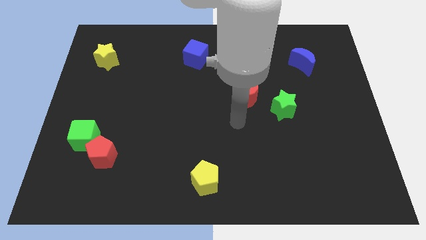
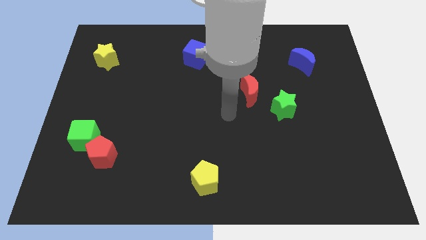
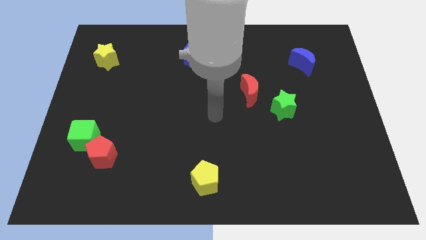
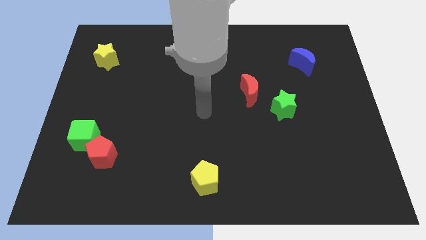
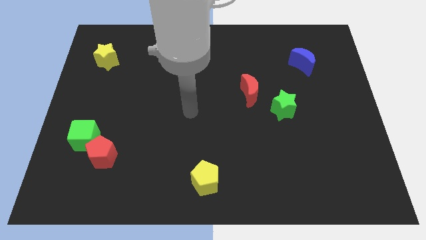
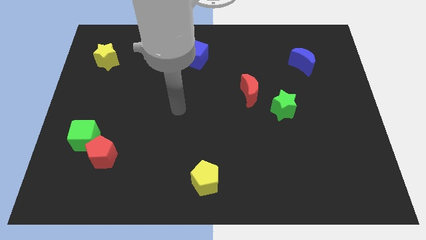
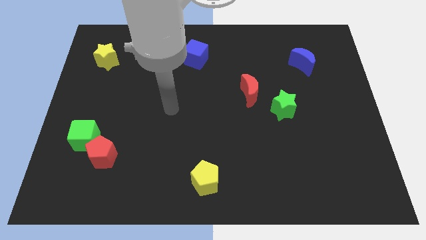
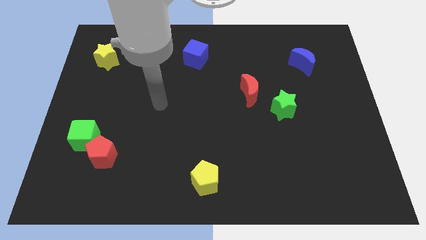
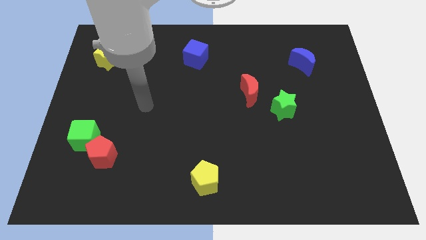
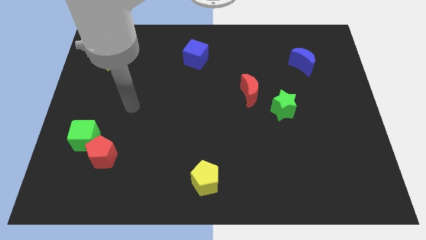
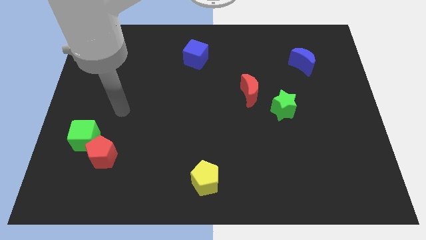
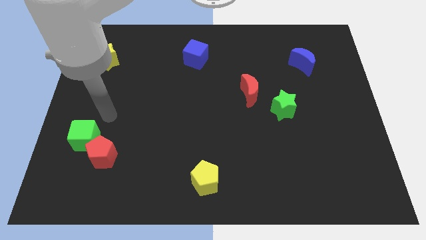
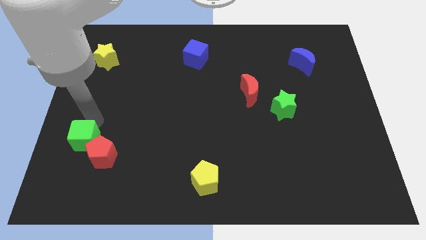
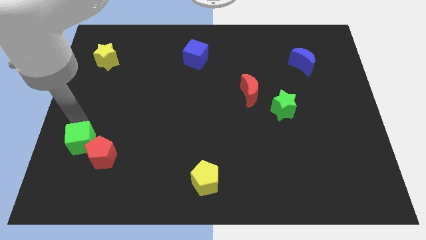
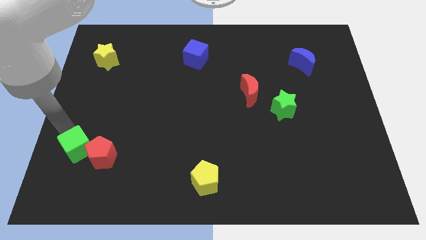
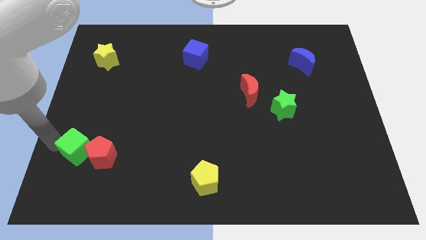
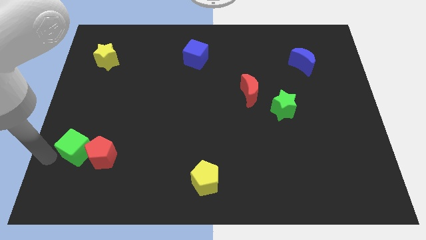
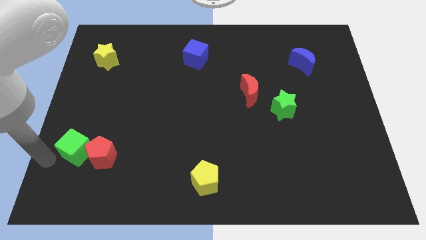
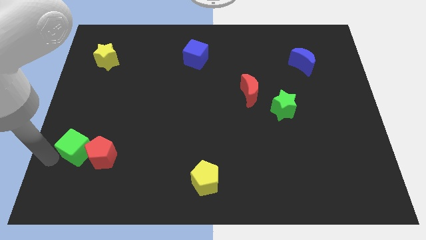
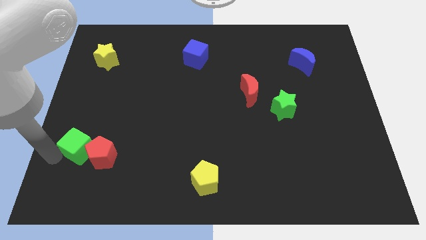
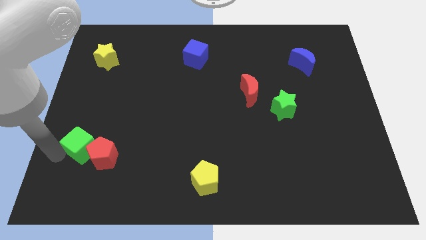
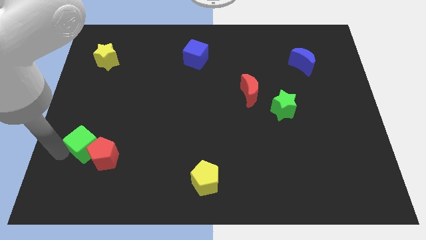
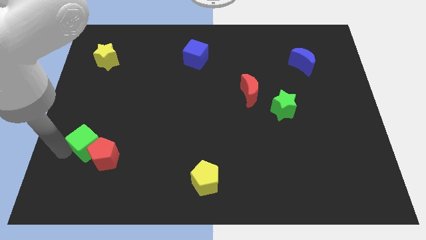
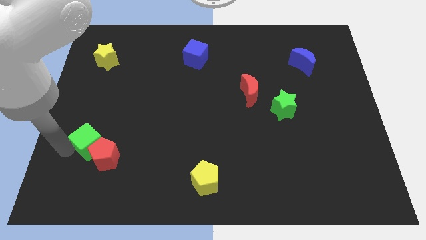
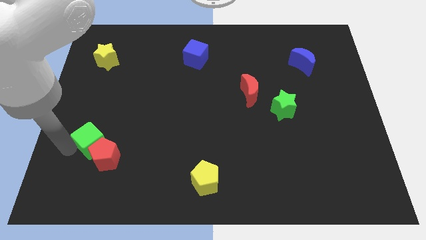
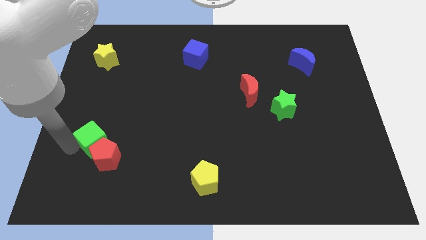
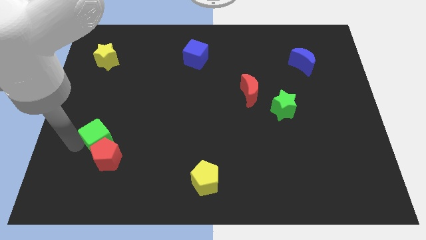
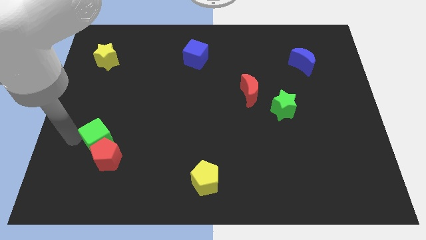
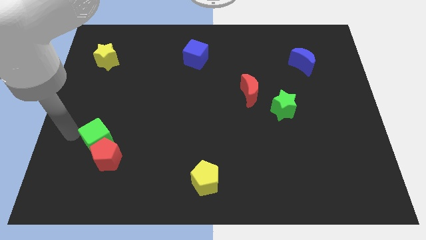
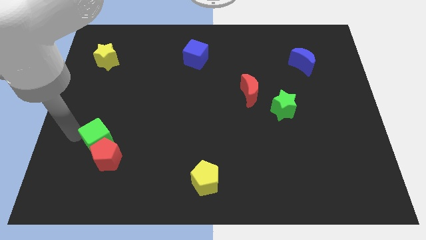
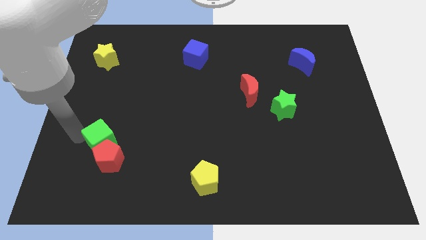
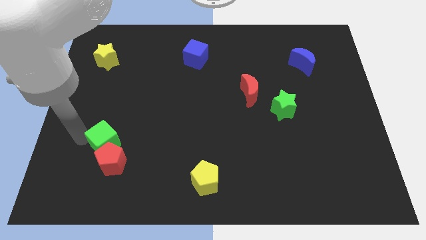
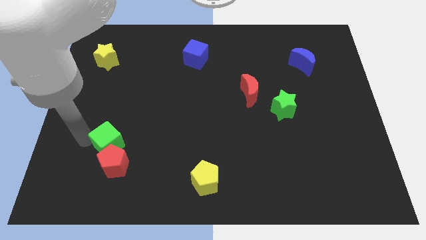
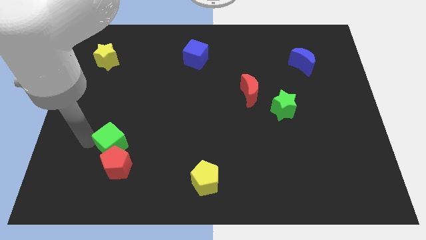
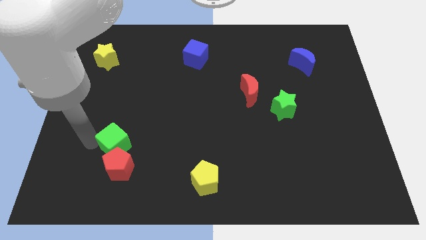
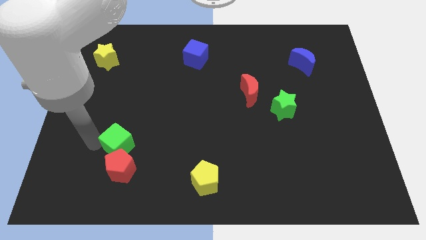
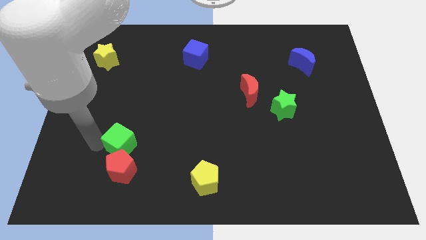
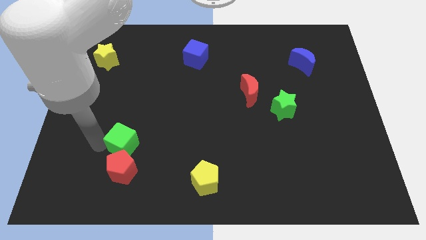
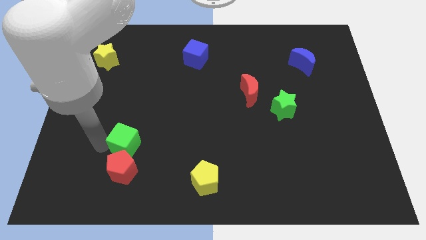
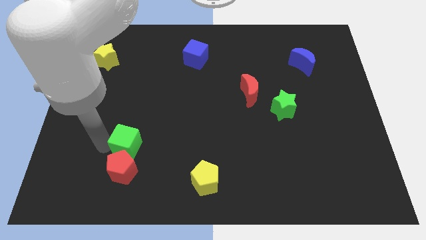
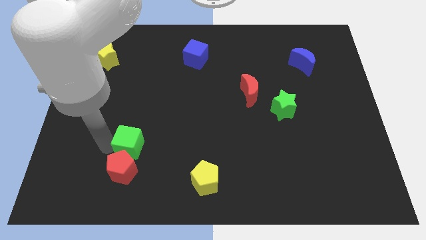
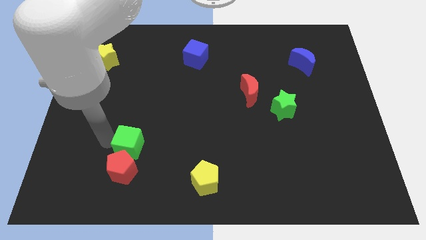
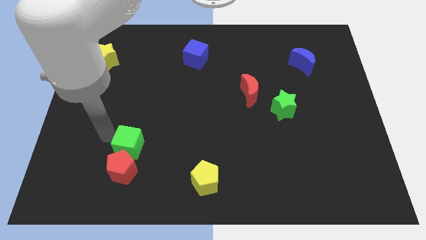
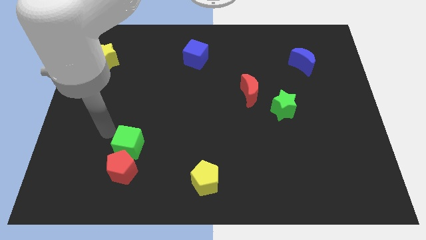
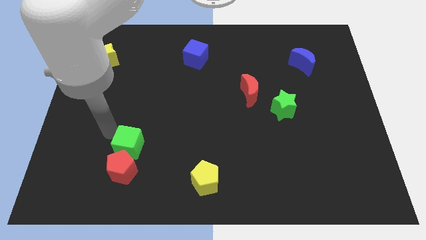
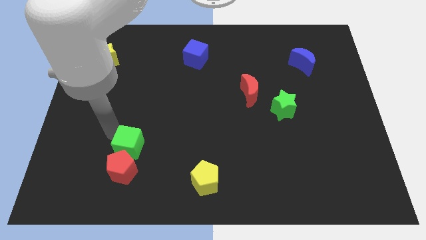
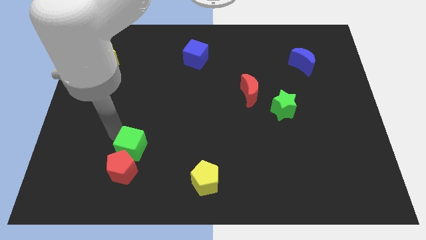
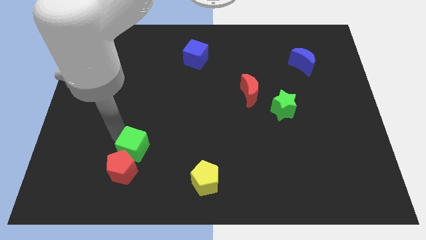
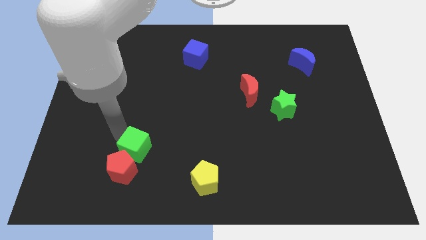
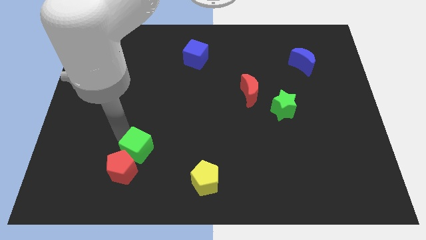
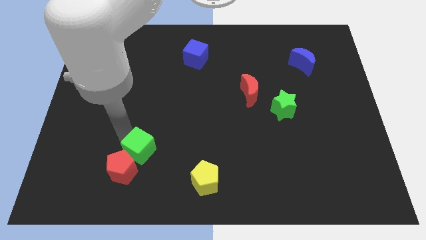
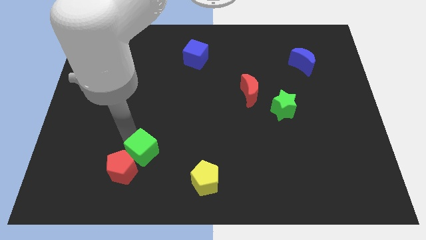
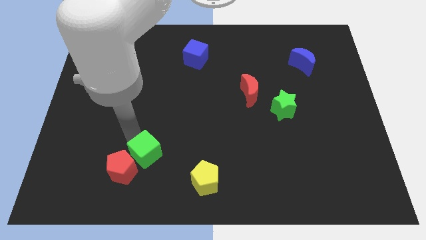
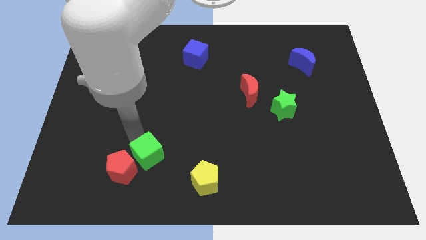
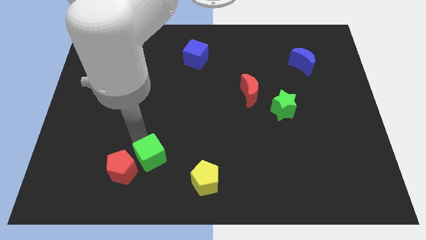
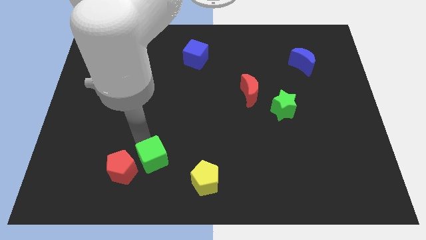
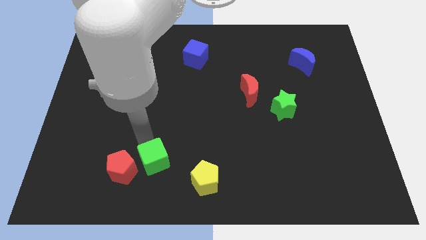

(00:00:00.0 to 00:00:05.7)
push the green cube to the left side of the yellow pentagon

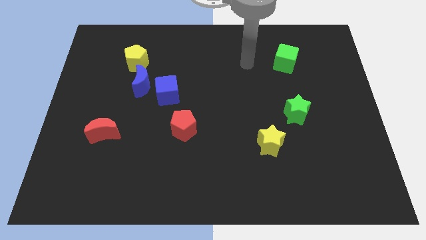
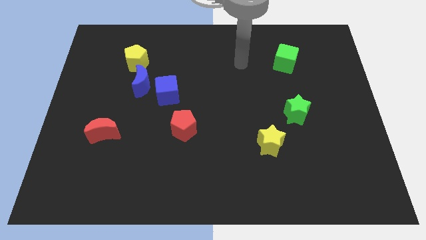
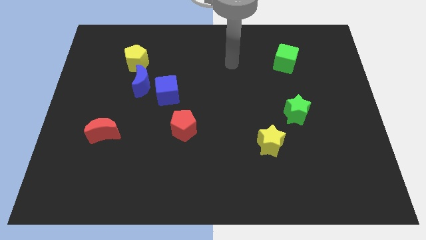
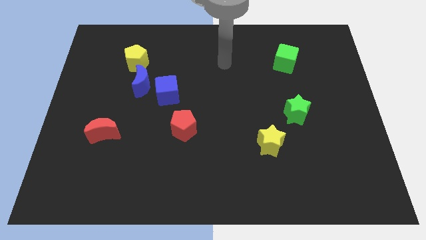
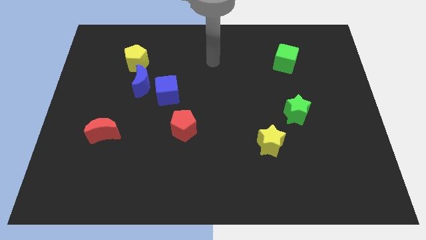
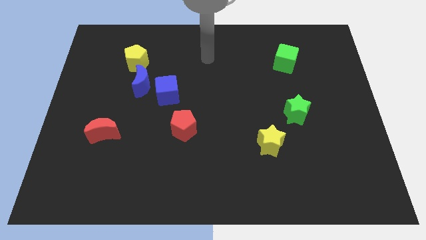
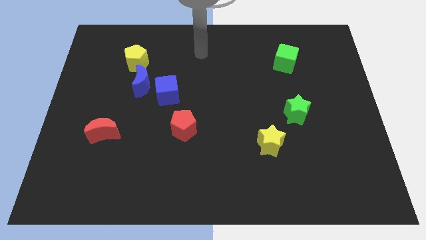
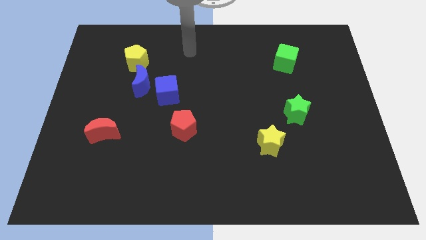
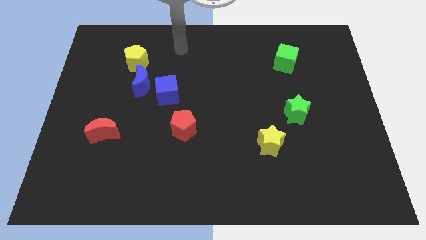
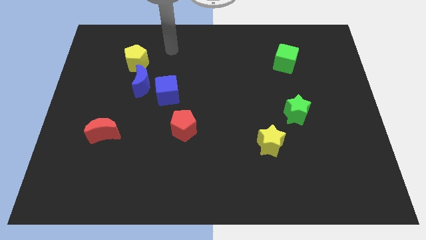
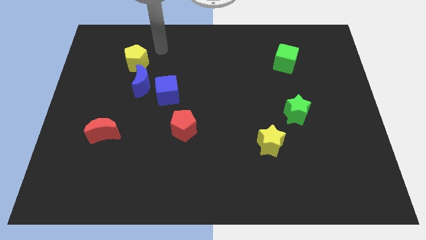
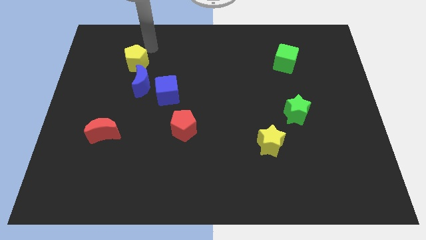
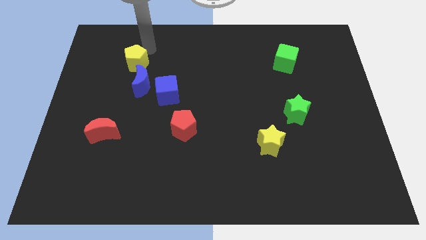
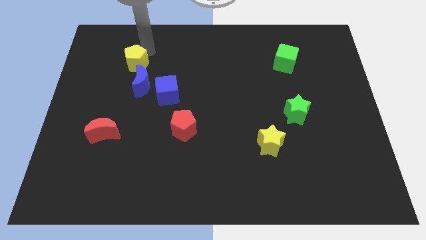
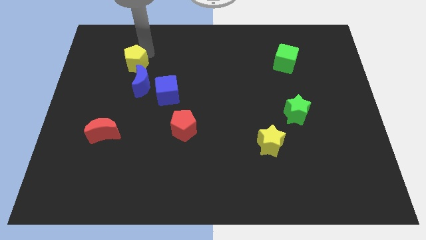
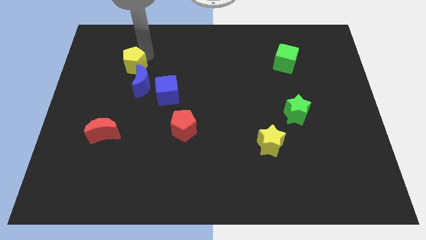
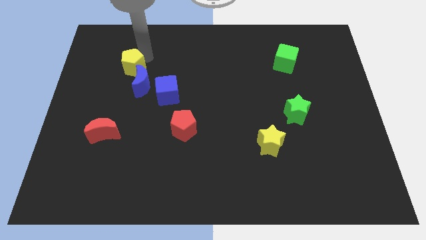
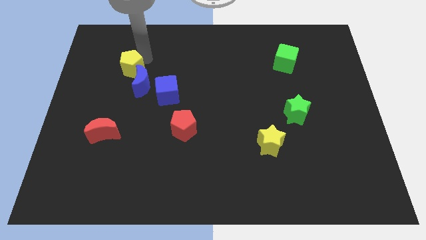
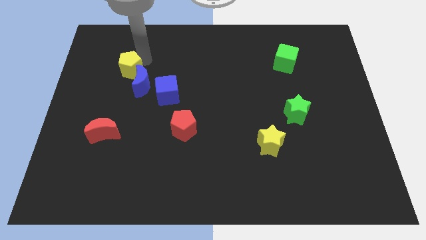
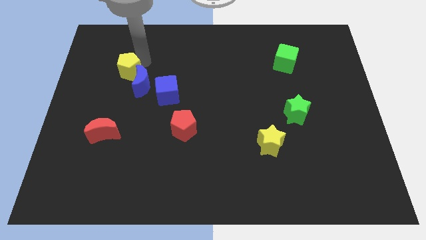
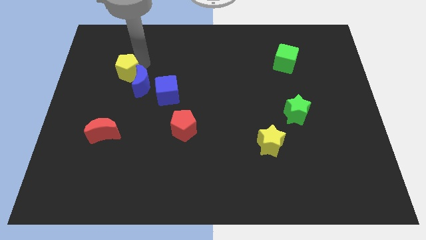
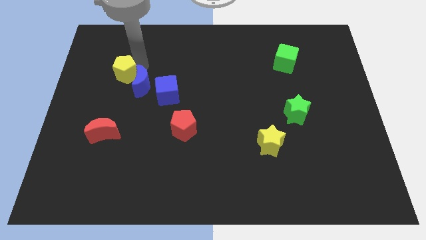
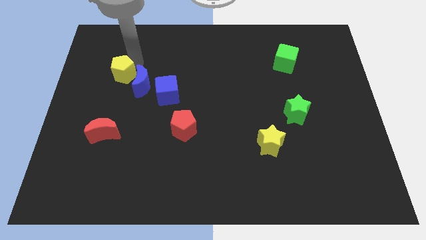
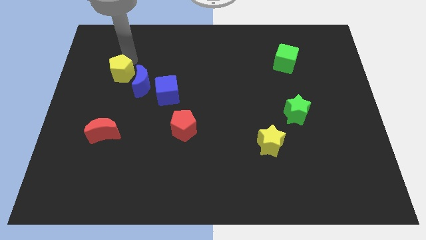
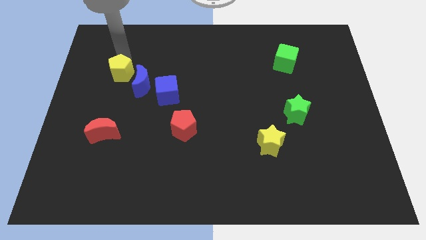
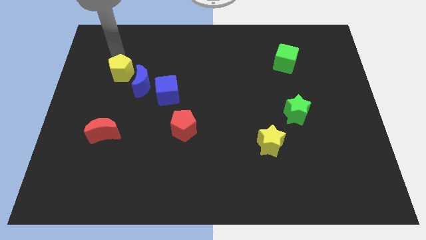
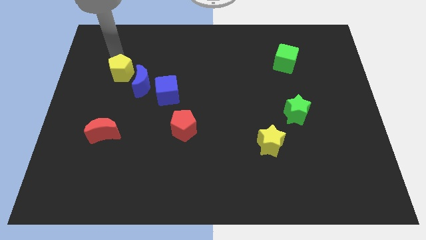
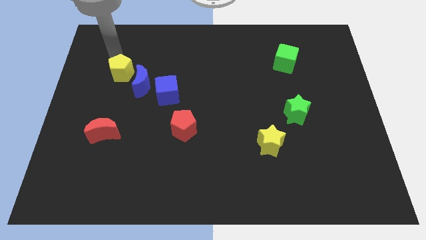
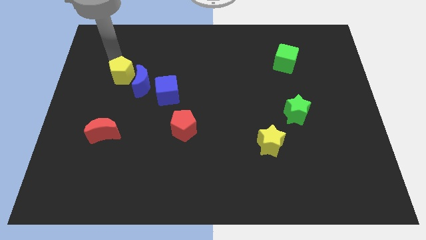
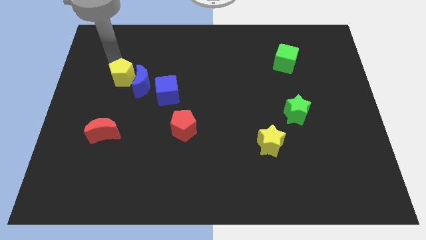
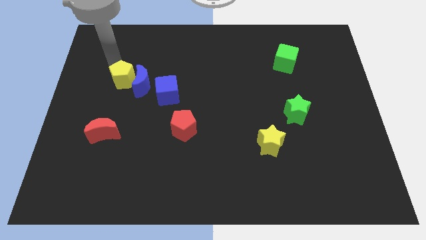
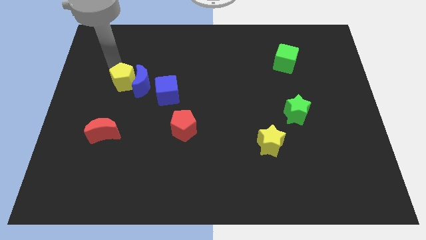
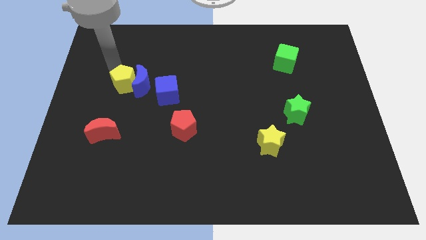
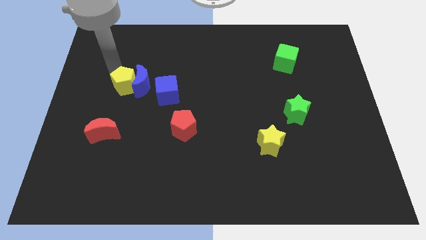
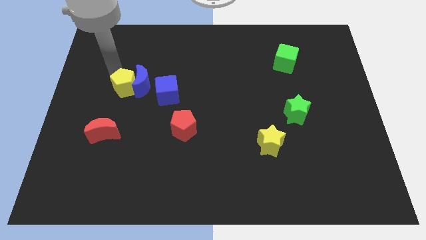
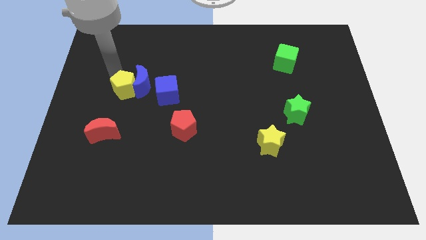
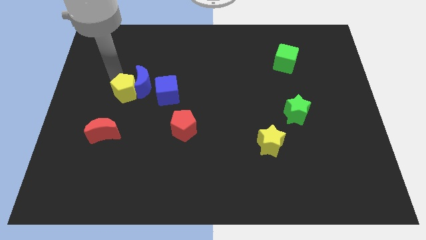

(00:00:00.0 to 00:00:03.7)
put the yellow pentagon to the bottom side of the blue moon
